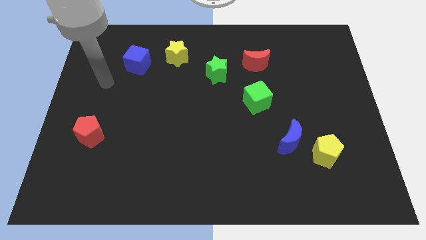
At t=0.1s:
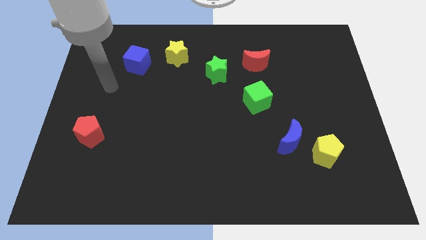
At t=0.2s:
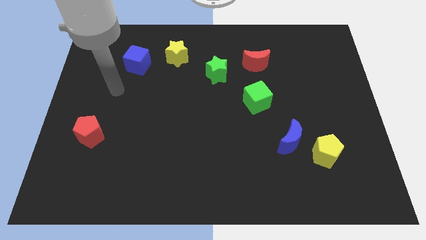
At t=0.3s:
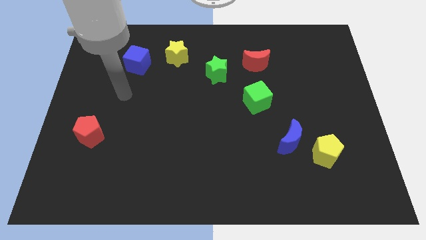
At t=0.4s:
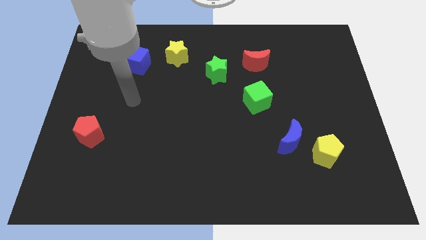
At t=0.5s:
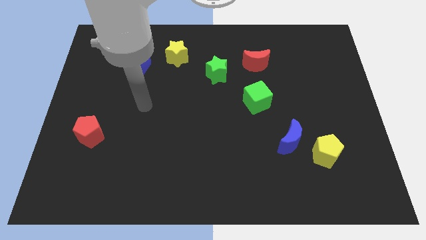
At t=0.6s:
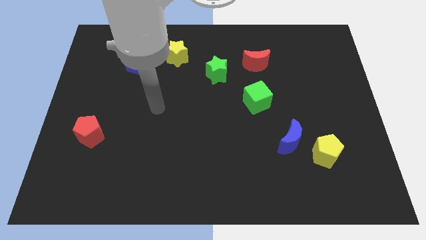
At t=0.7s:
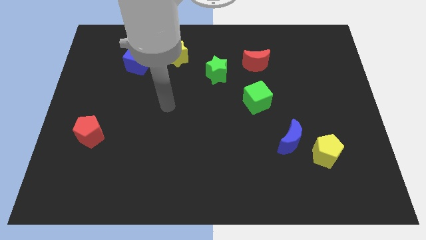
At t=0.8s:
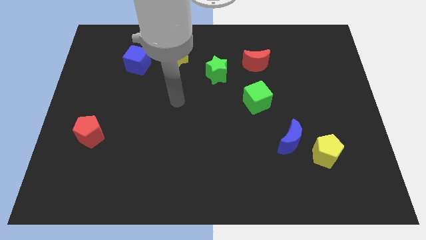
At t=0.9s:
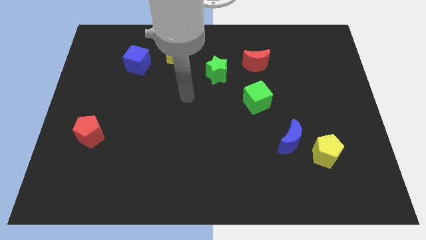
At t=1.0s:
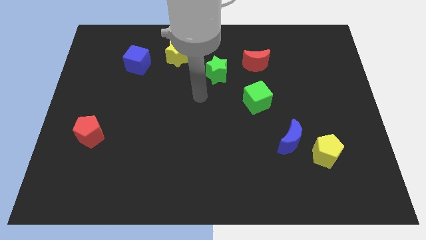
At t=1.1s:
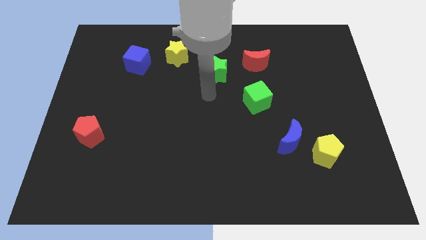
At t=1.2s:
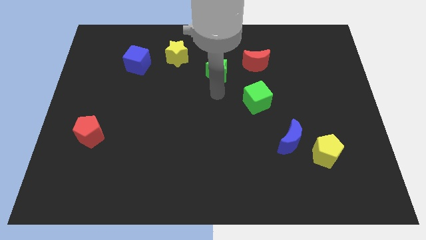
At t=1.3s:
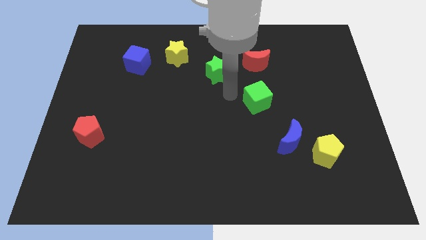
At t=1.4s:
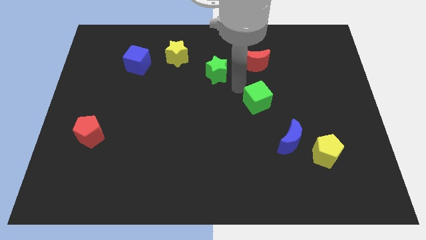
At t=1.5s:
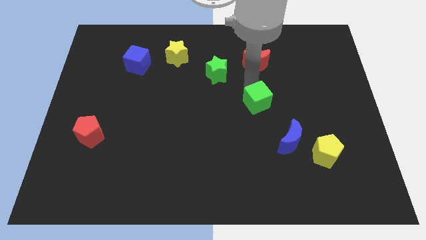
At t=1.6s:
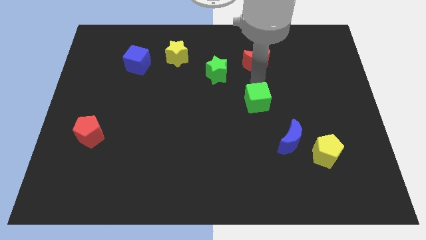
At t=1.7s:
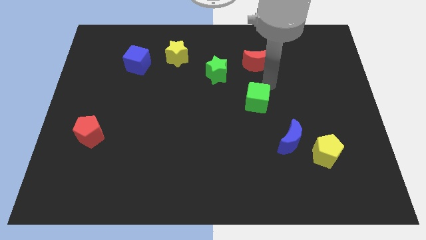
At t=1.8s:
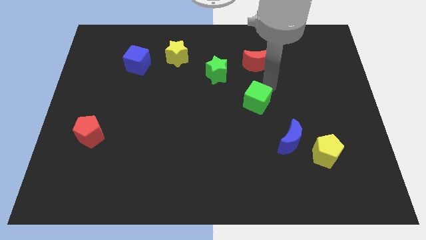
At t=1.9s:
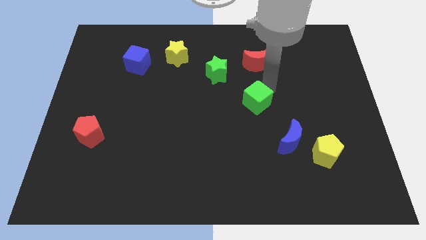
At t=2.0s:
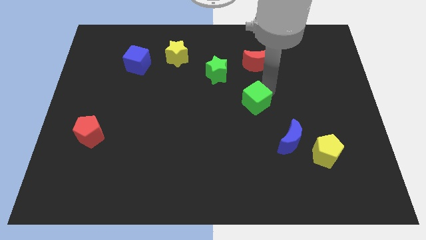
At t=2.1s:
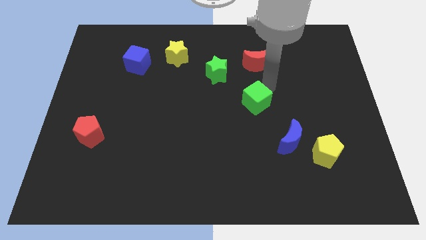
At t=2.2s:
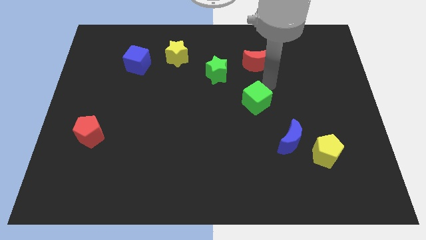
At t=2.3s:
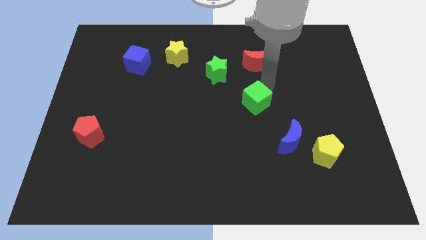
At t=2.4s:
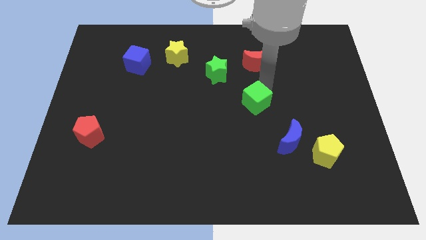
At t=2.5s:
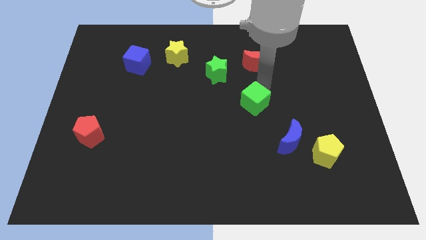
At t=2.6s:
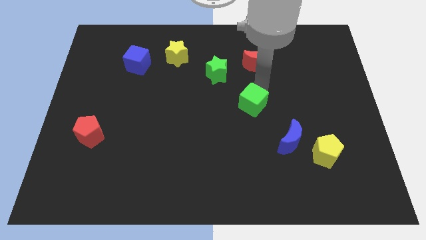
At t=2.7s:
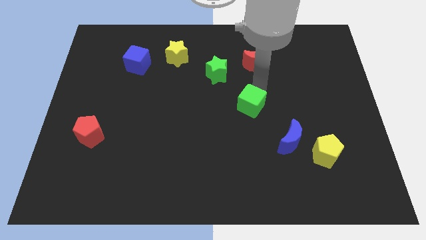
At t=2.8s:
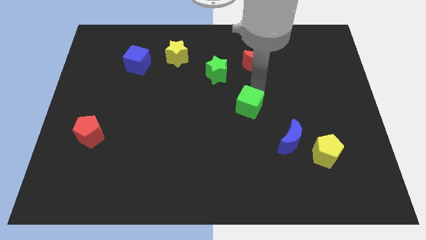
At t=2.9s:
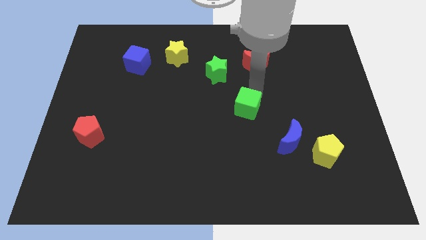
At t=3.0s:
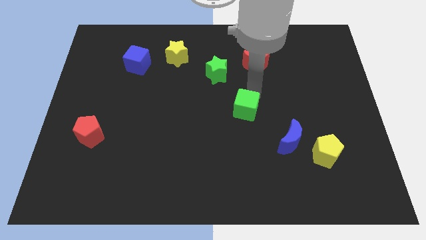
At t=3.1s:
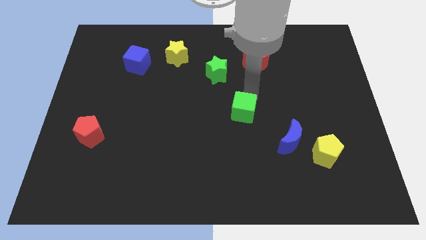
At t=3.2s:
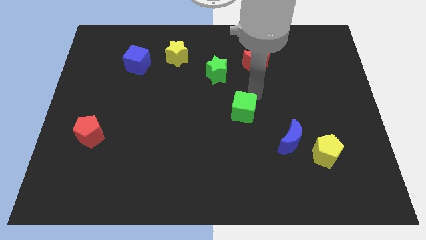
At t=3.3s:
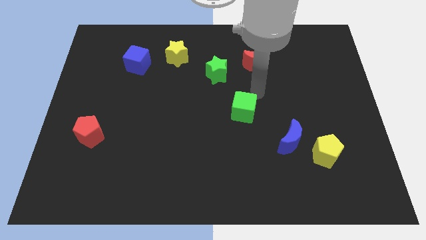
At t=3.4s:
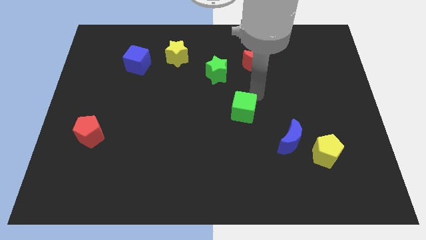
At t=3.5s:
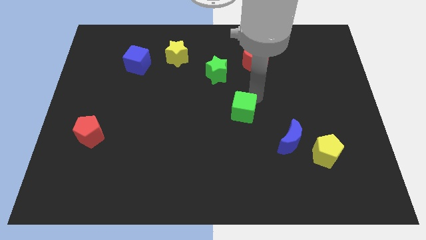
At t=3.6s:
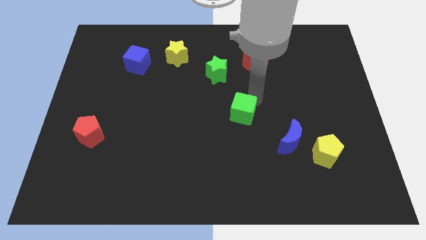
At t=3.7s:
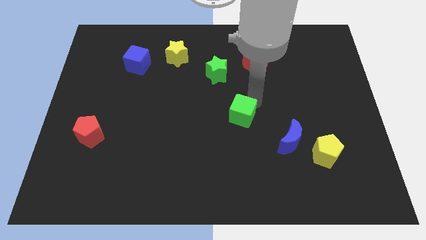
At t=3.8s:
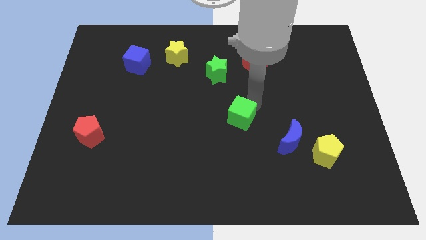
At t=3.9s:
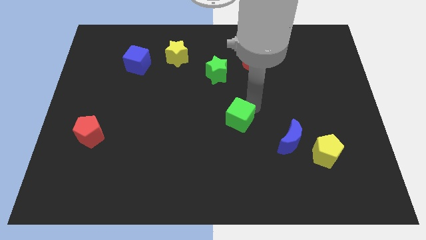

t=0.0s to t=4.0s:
push the green cube diagonally down and to the left slightly

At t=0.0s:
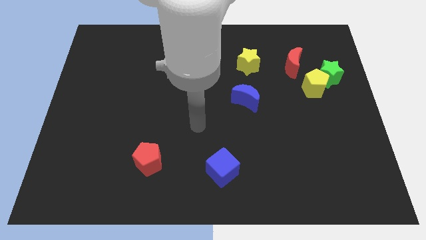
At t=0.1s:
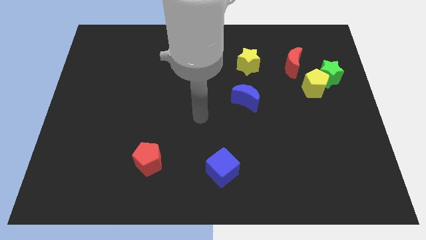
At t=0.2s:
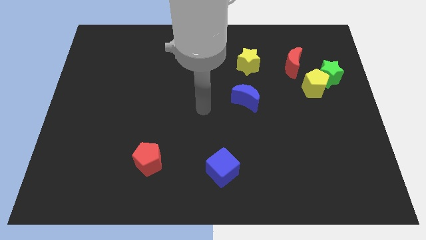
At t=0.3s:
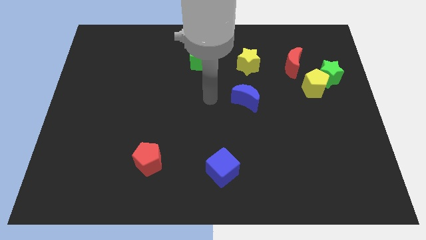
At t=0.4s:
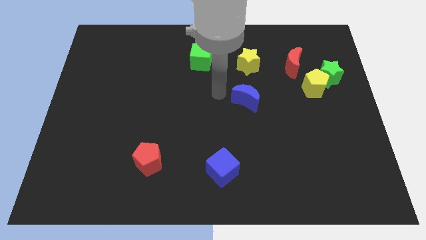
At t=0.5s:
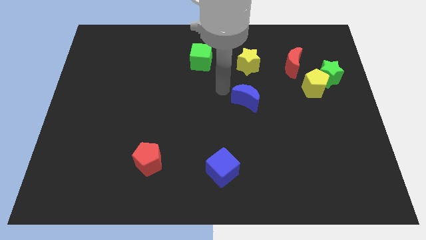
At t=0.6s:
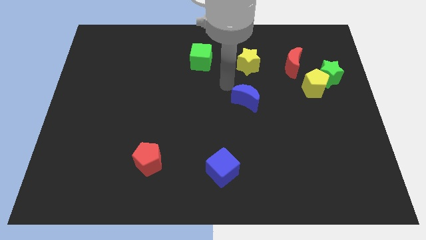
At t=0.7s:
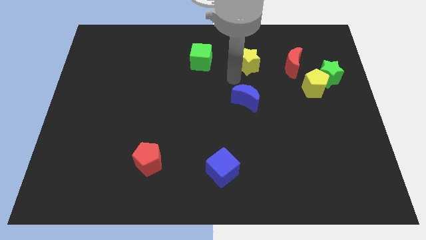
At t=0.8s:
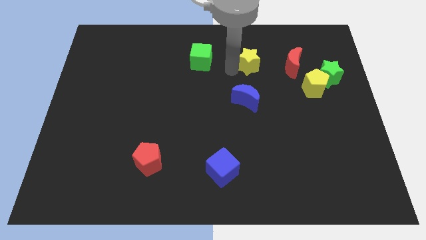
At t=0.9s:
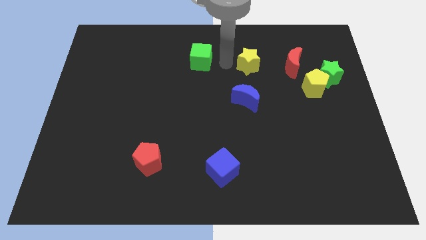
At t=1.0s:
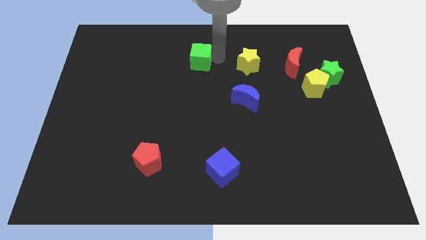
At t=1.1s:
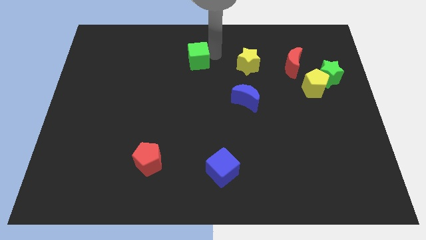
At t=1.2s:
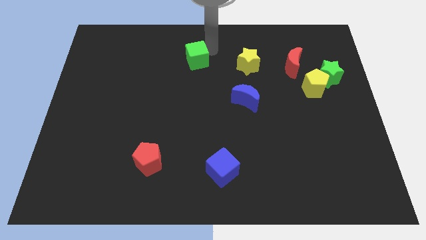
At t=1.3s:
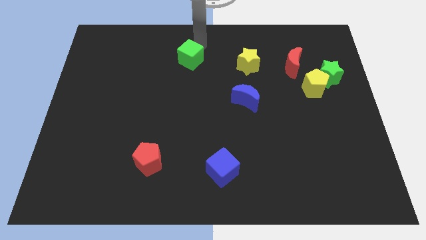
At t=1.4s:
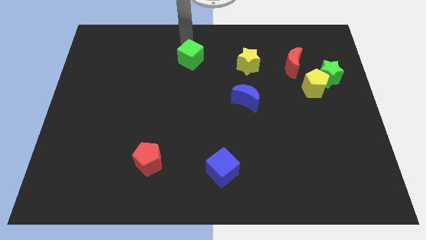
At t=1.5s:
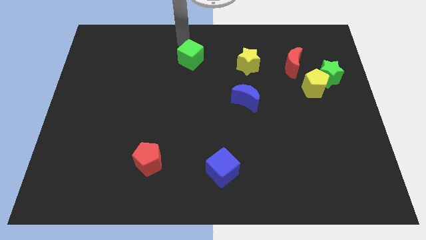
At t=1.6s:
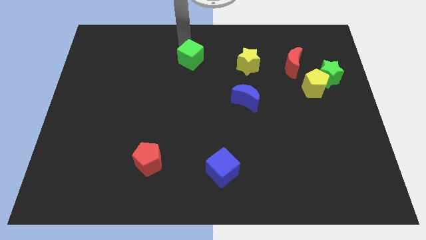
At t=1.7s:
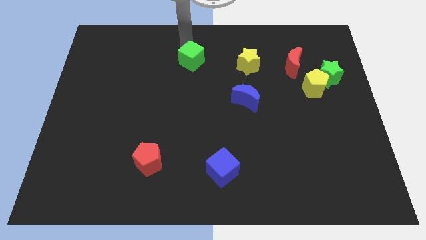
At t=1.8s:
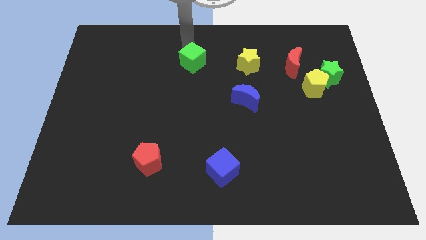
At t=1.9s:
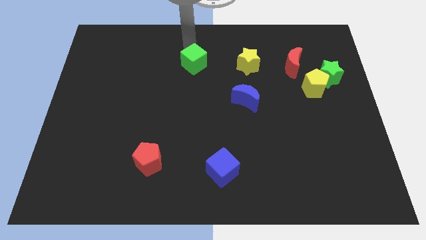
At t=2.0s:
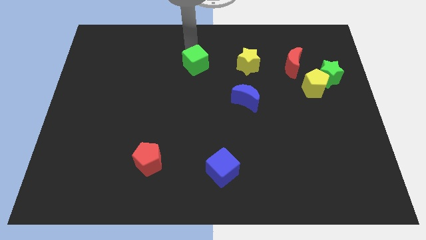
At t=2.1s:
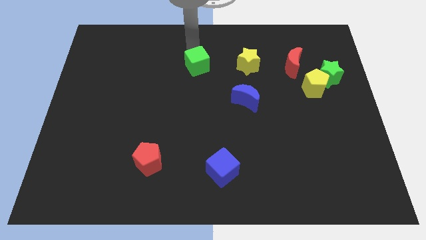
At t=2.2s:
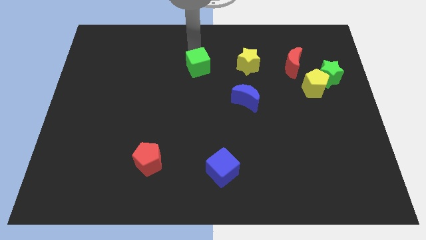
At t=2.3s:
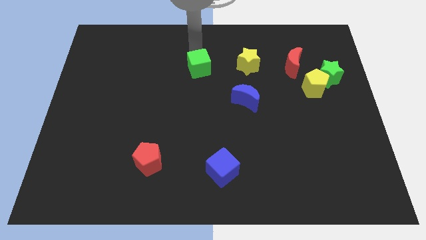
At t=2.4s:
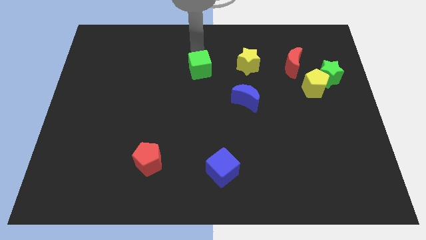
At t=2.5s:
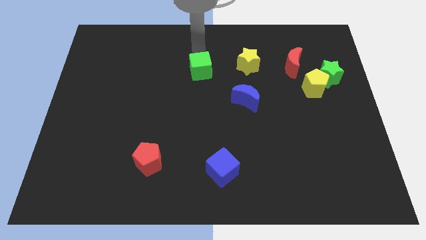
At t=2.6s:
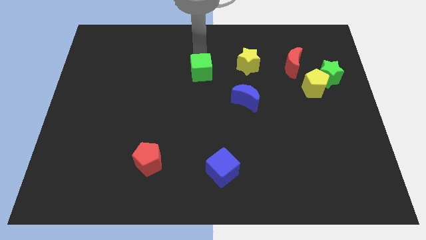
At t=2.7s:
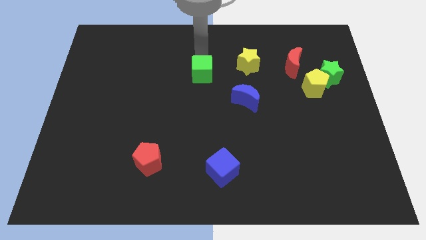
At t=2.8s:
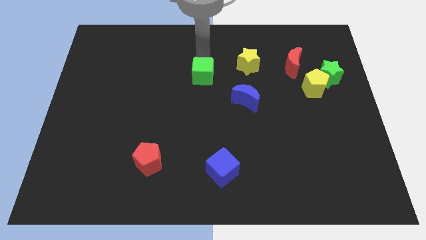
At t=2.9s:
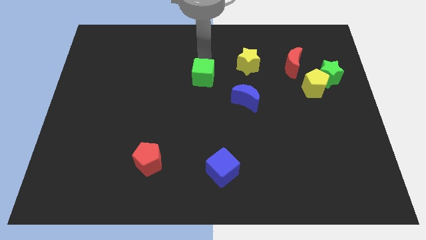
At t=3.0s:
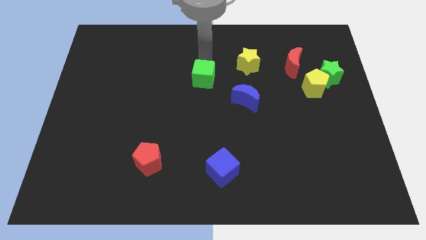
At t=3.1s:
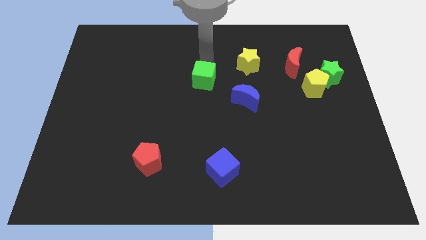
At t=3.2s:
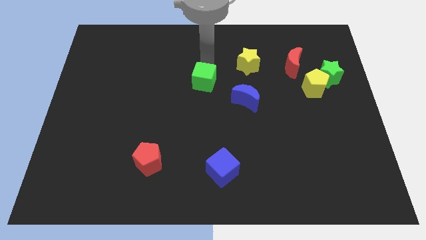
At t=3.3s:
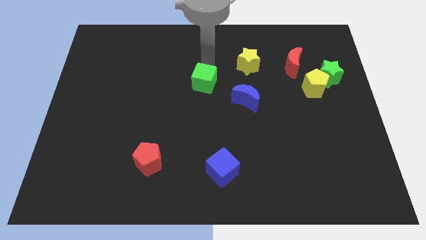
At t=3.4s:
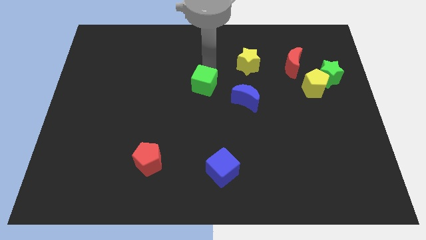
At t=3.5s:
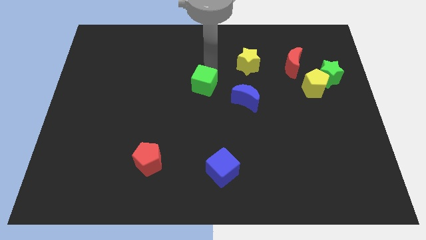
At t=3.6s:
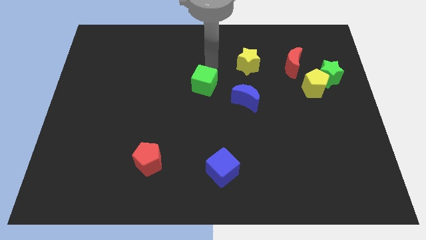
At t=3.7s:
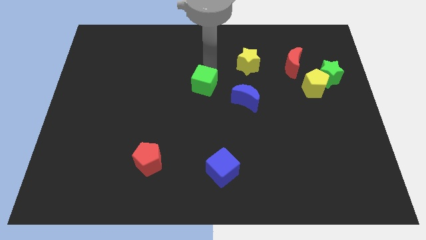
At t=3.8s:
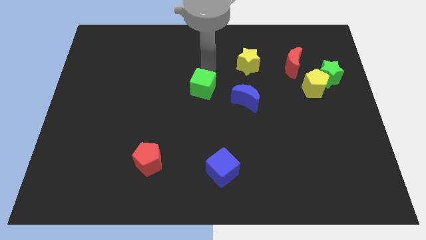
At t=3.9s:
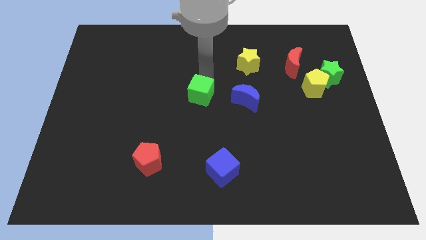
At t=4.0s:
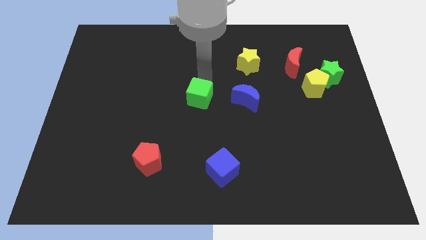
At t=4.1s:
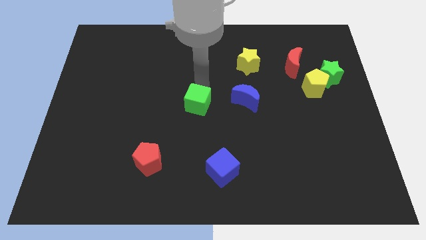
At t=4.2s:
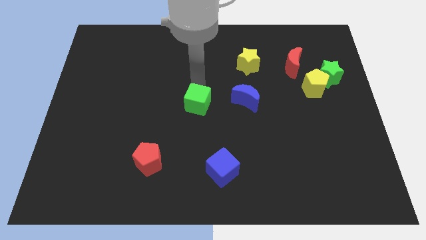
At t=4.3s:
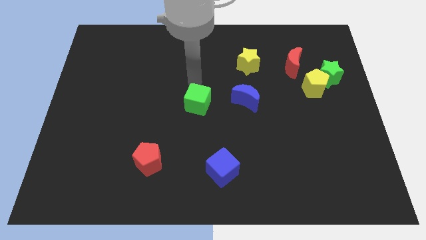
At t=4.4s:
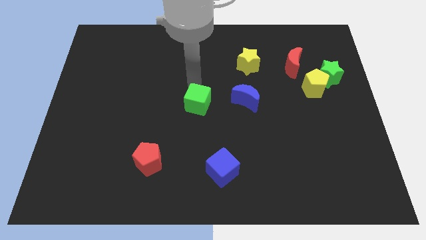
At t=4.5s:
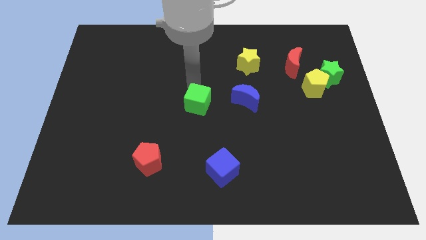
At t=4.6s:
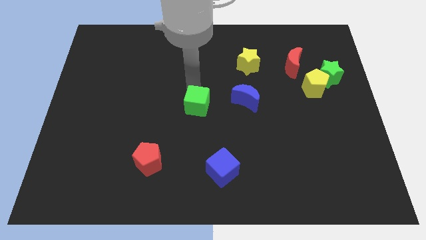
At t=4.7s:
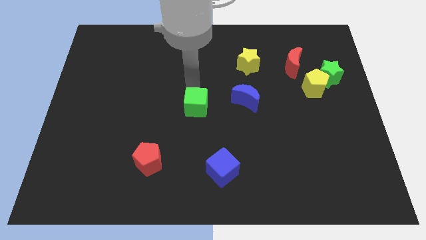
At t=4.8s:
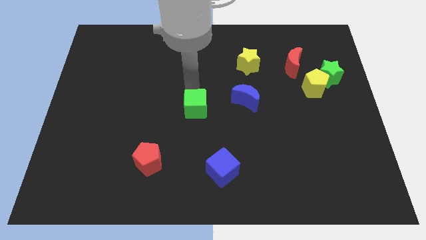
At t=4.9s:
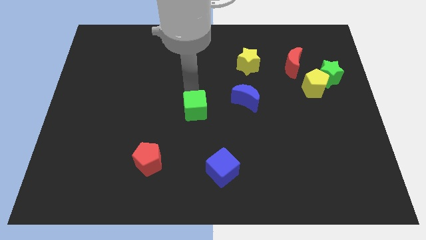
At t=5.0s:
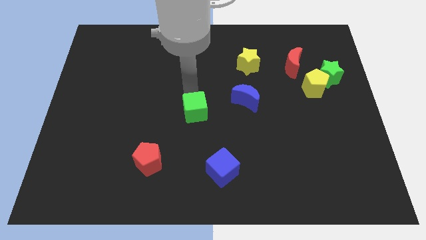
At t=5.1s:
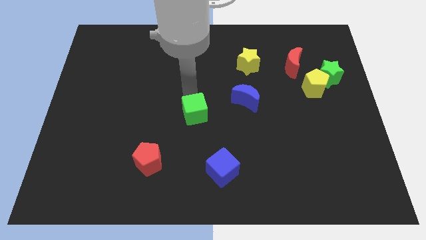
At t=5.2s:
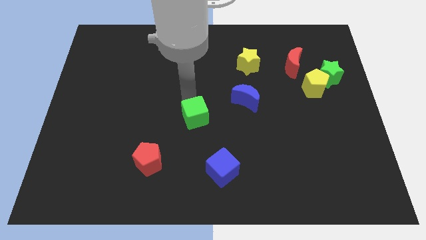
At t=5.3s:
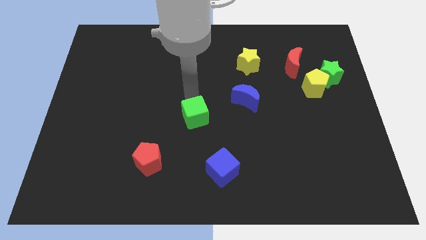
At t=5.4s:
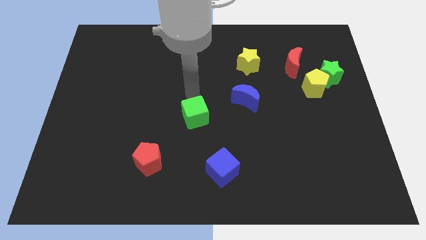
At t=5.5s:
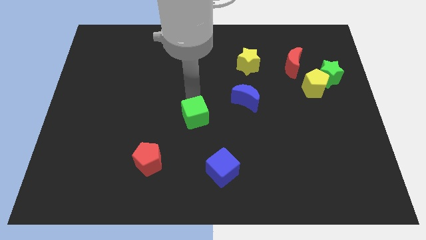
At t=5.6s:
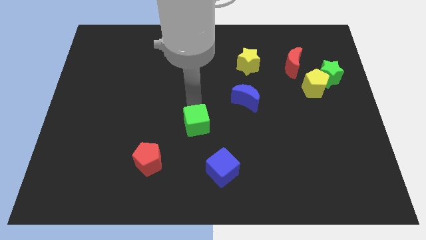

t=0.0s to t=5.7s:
push the green cube downwards
